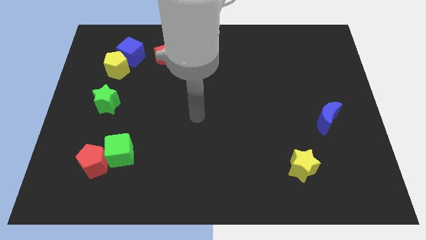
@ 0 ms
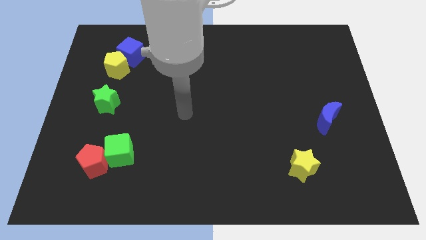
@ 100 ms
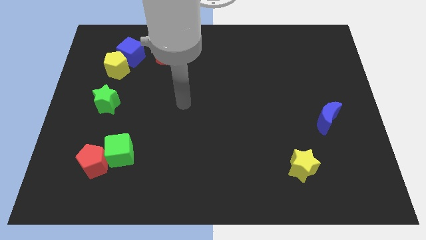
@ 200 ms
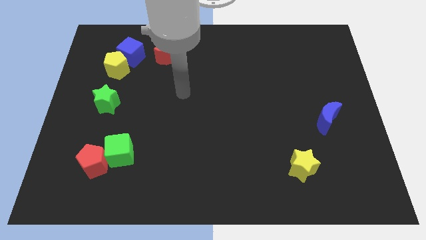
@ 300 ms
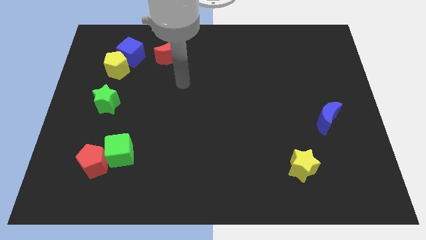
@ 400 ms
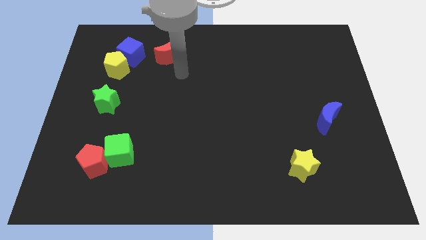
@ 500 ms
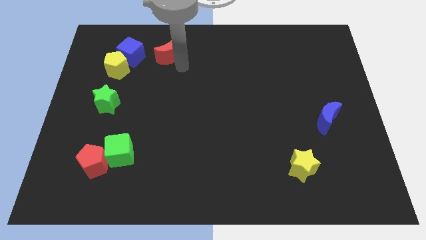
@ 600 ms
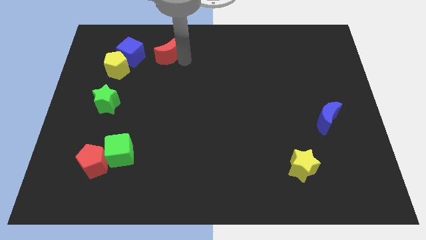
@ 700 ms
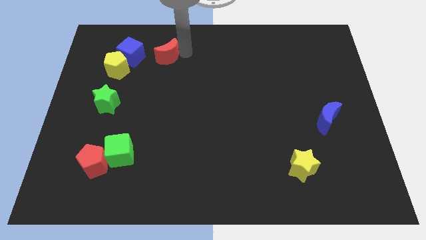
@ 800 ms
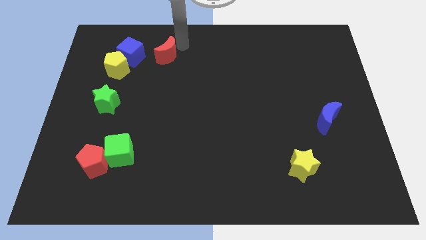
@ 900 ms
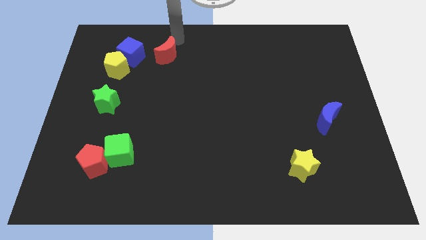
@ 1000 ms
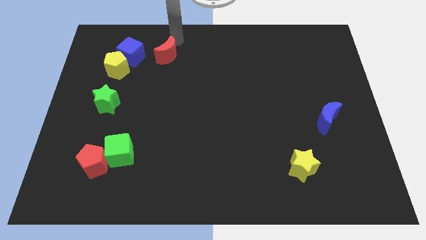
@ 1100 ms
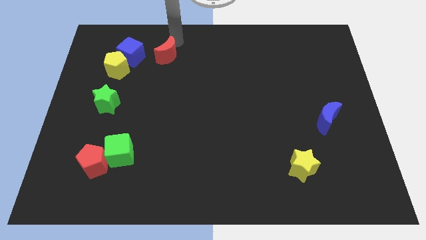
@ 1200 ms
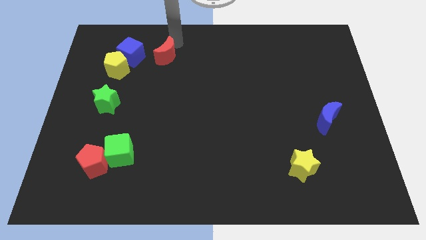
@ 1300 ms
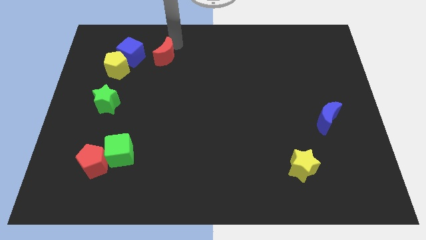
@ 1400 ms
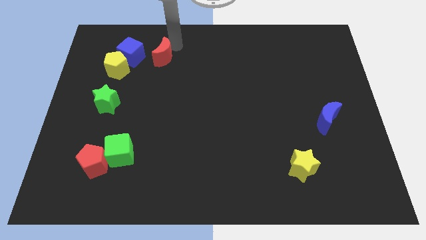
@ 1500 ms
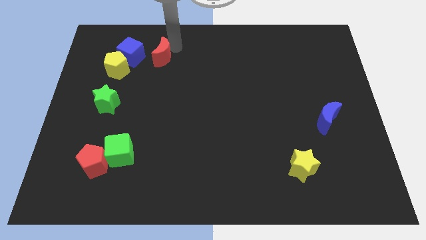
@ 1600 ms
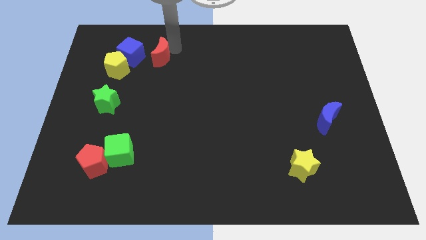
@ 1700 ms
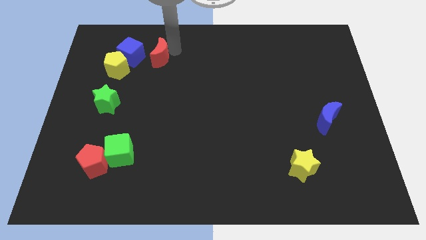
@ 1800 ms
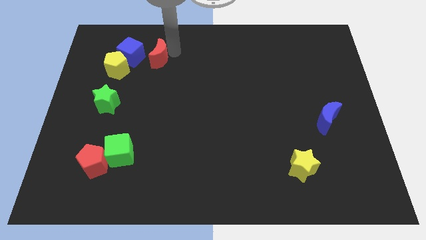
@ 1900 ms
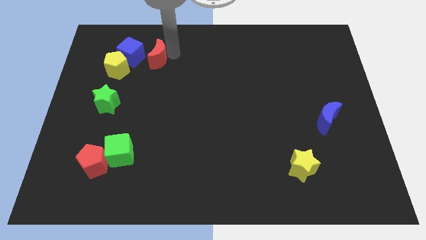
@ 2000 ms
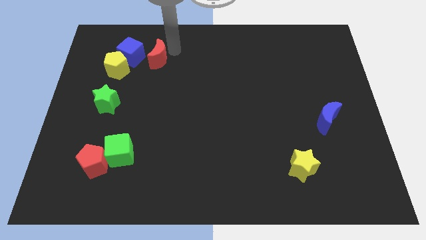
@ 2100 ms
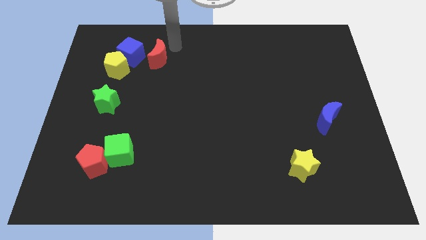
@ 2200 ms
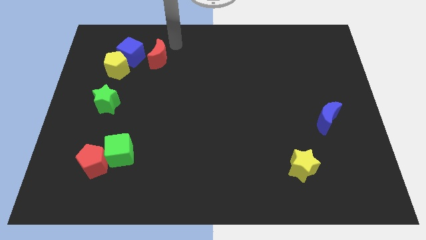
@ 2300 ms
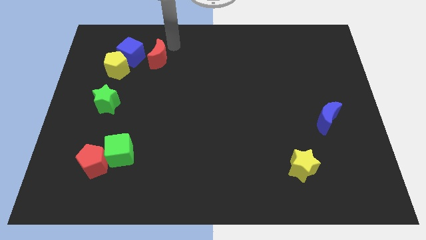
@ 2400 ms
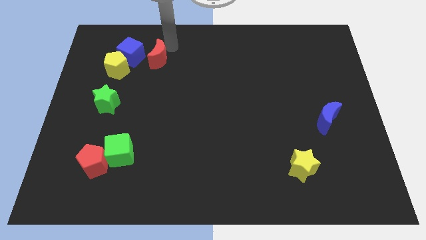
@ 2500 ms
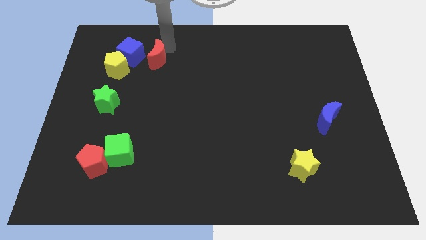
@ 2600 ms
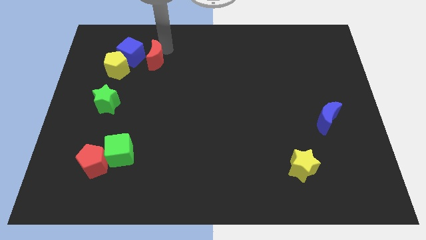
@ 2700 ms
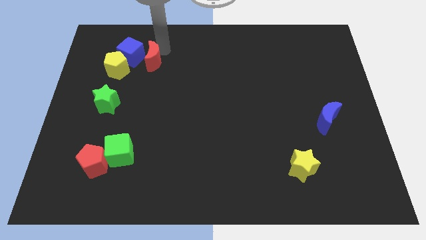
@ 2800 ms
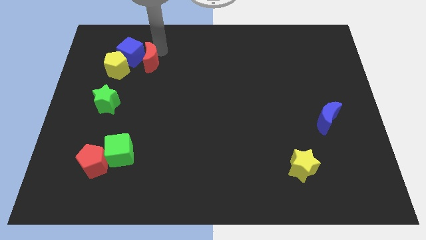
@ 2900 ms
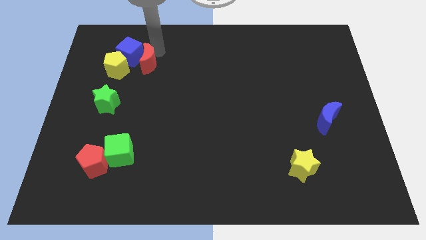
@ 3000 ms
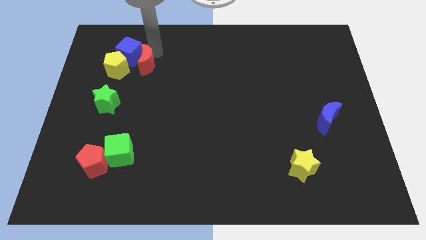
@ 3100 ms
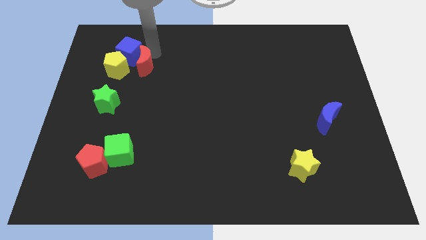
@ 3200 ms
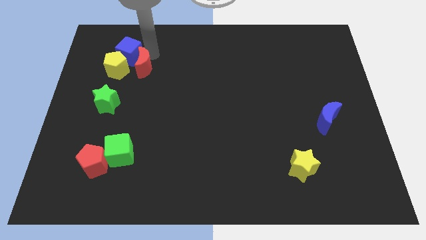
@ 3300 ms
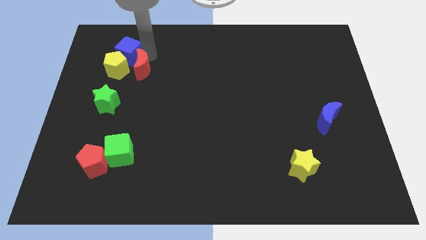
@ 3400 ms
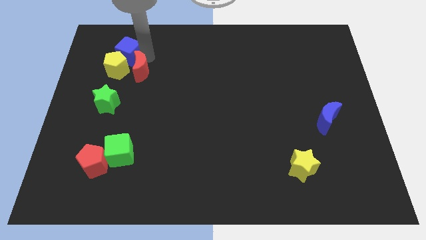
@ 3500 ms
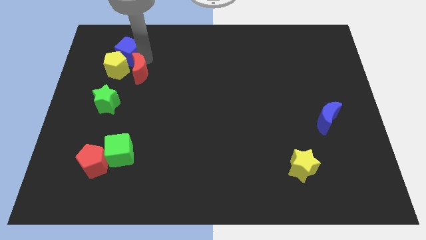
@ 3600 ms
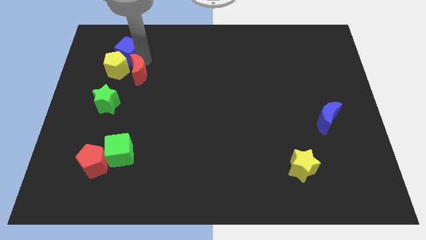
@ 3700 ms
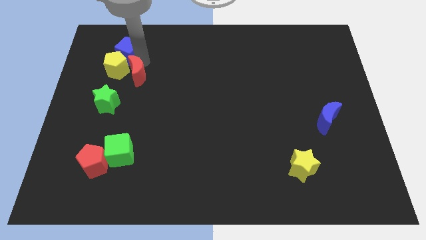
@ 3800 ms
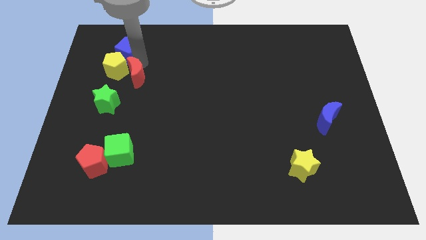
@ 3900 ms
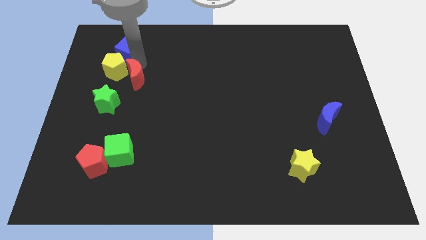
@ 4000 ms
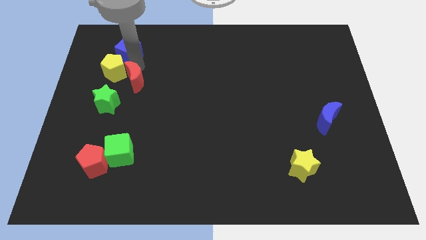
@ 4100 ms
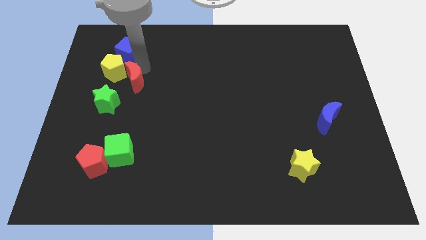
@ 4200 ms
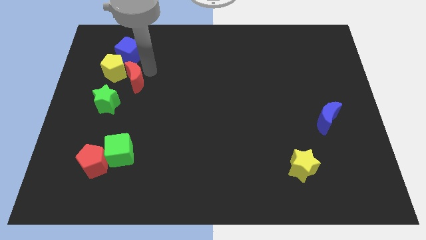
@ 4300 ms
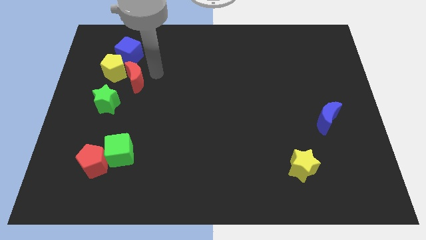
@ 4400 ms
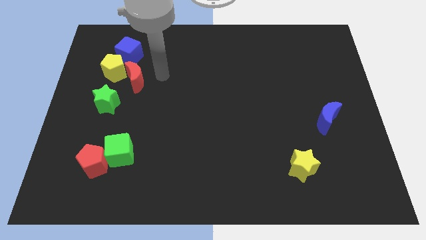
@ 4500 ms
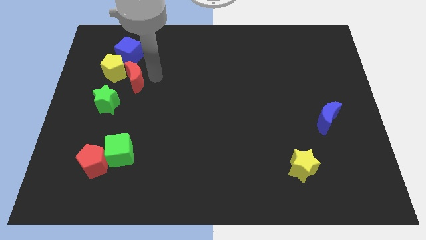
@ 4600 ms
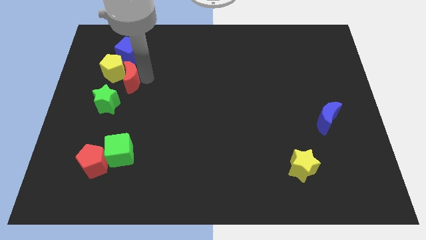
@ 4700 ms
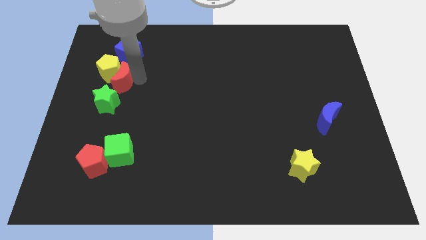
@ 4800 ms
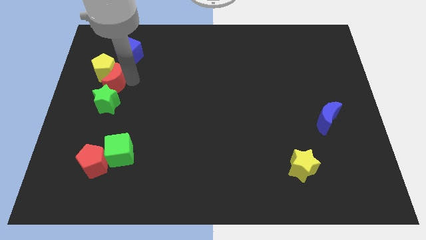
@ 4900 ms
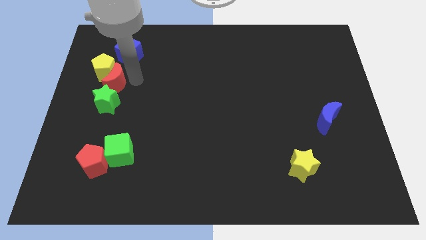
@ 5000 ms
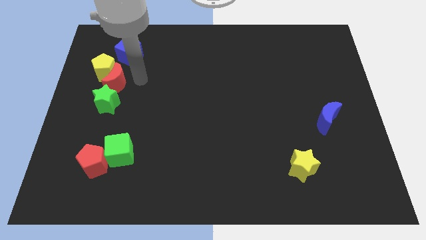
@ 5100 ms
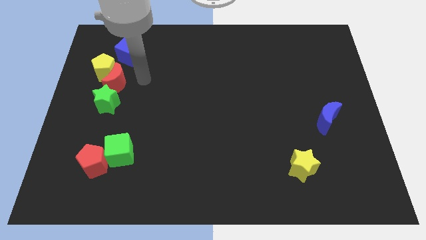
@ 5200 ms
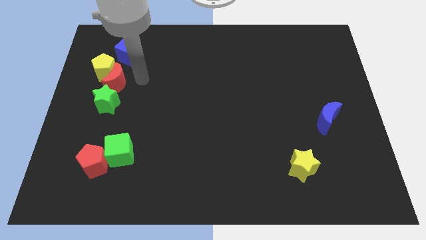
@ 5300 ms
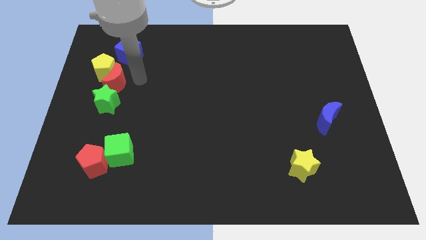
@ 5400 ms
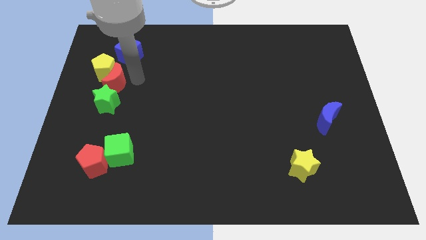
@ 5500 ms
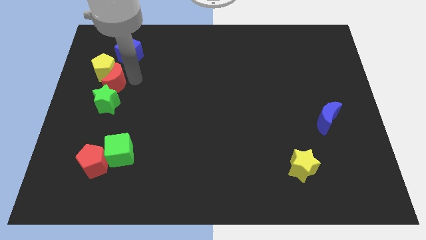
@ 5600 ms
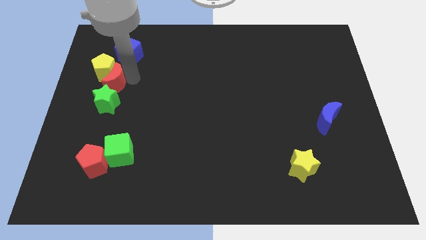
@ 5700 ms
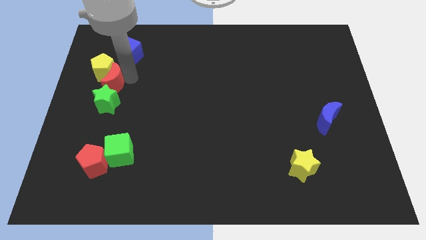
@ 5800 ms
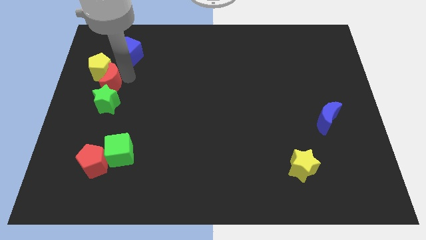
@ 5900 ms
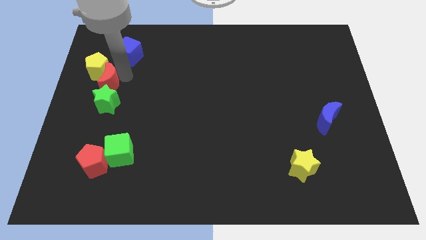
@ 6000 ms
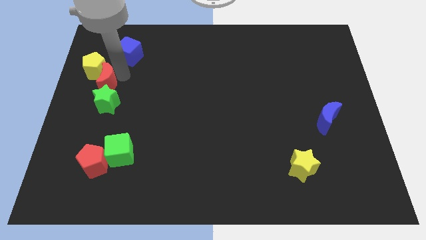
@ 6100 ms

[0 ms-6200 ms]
push the red moon to the center left

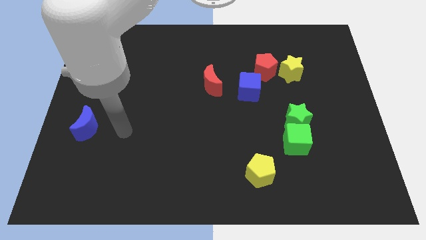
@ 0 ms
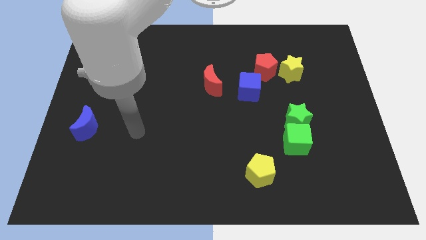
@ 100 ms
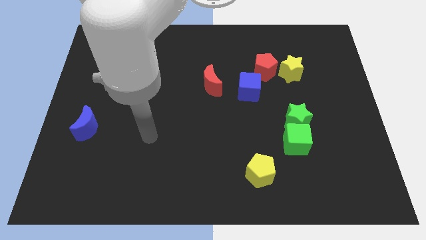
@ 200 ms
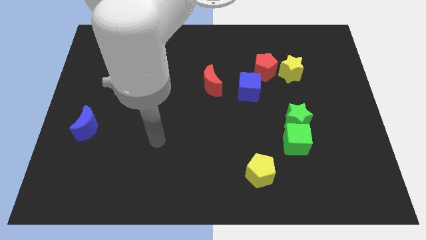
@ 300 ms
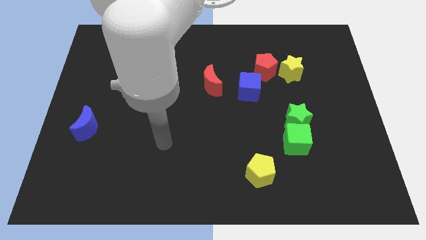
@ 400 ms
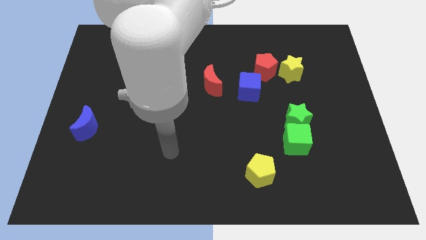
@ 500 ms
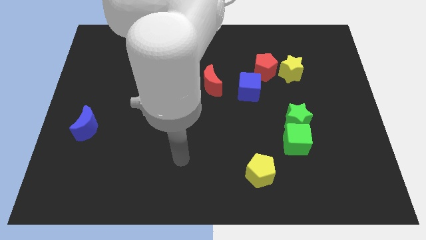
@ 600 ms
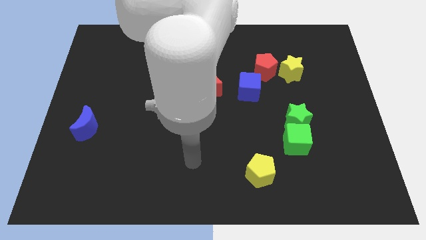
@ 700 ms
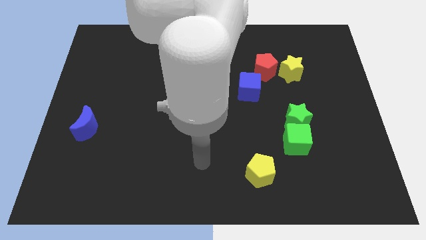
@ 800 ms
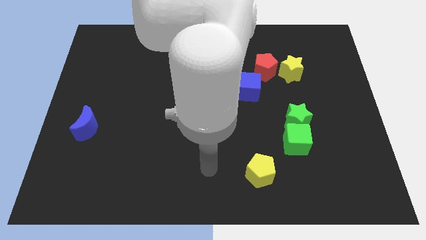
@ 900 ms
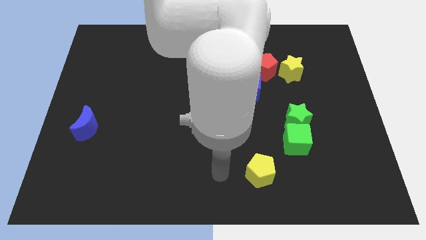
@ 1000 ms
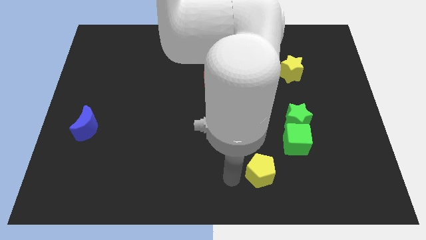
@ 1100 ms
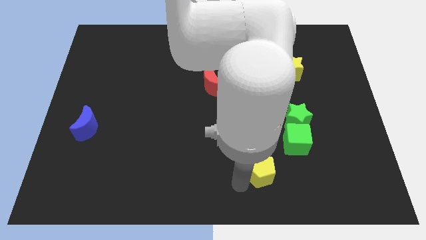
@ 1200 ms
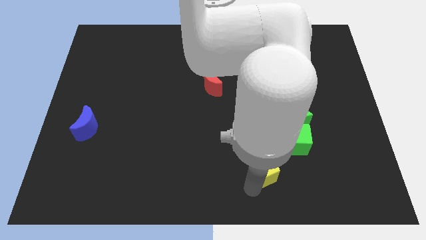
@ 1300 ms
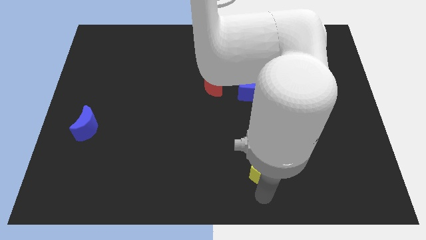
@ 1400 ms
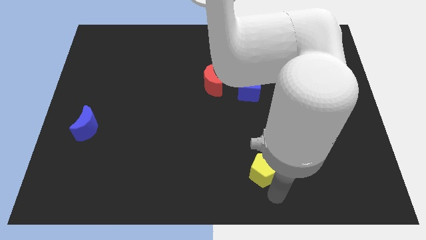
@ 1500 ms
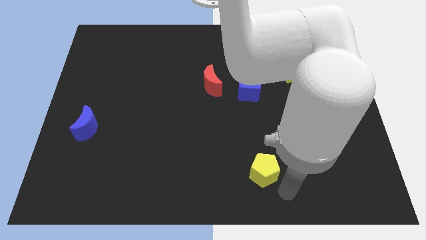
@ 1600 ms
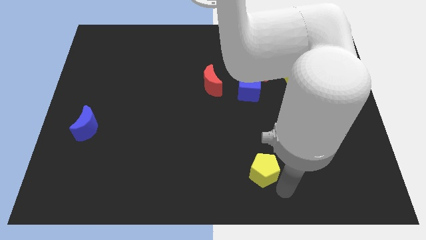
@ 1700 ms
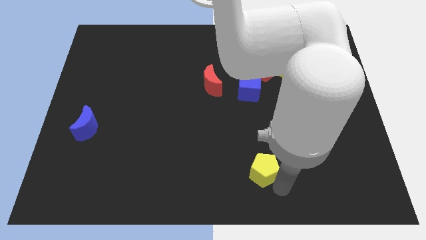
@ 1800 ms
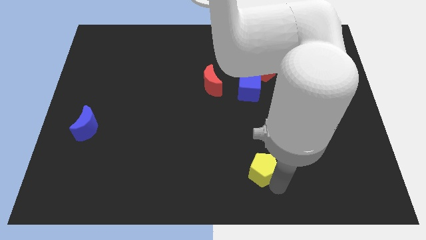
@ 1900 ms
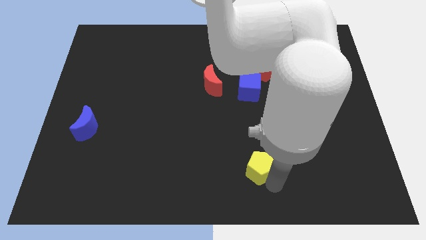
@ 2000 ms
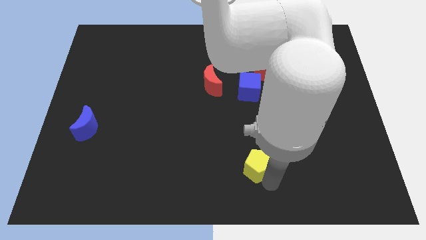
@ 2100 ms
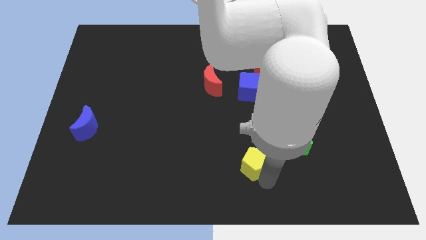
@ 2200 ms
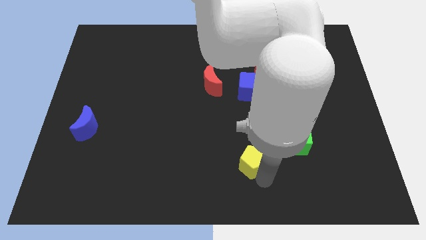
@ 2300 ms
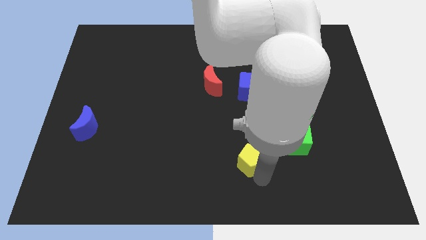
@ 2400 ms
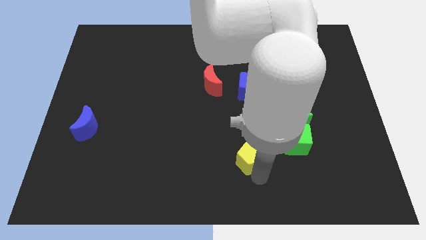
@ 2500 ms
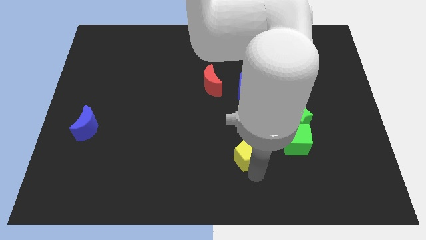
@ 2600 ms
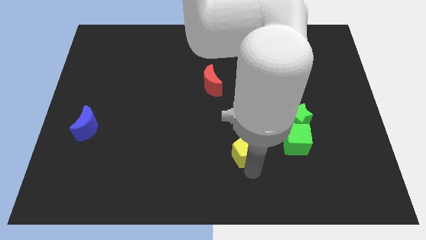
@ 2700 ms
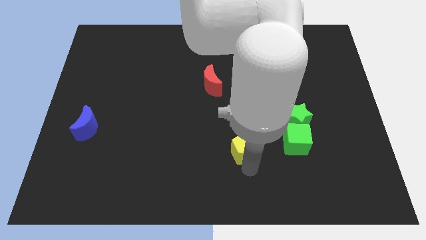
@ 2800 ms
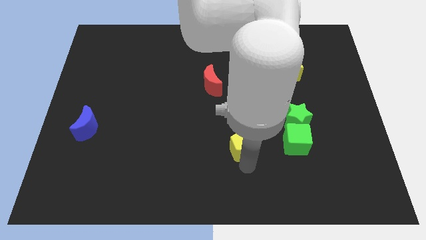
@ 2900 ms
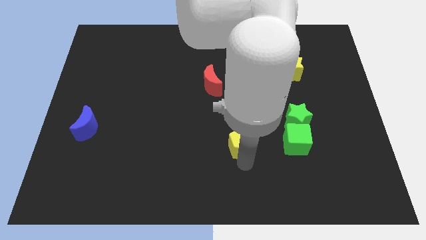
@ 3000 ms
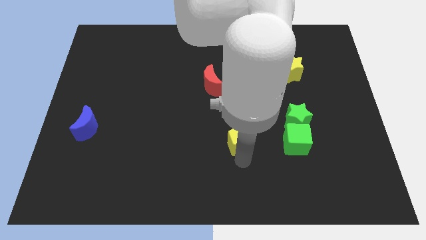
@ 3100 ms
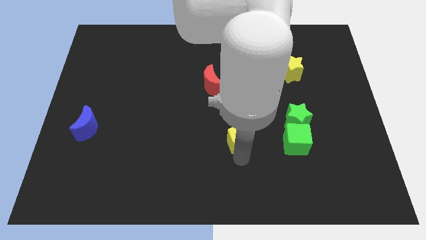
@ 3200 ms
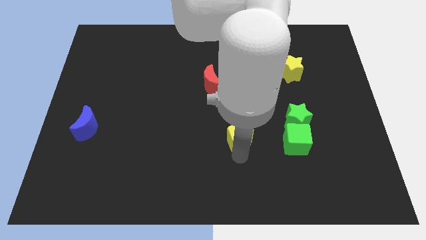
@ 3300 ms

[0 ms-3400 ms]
slide the yellow pentagon to the middle
